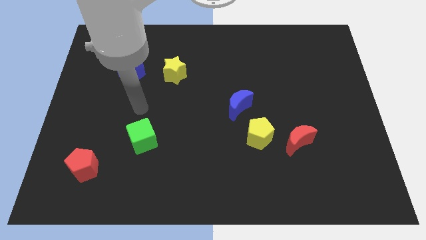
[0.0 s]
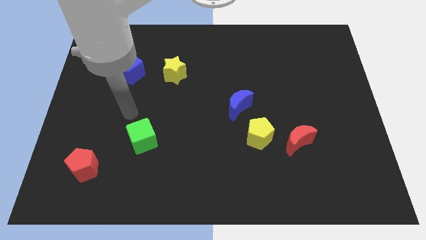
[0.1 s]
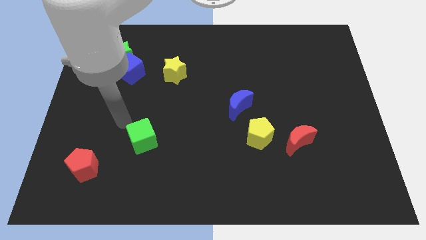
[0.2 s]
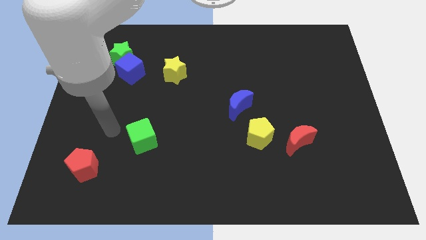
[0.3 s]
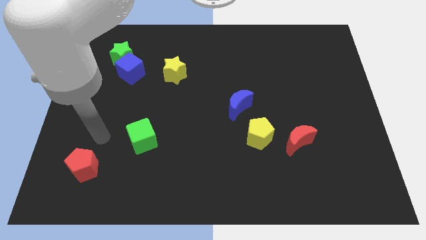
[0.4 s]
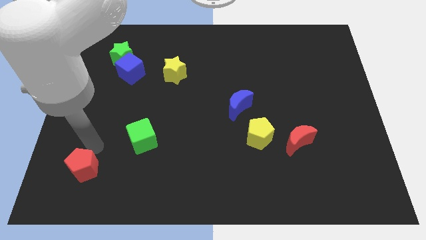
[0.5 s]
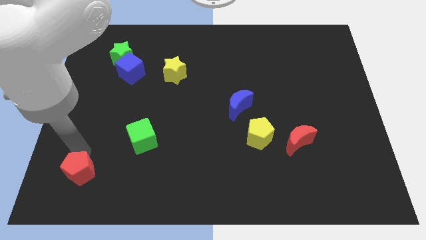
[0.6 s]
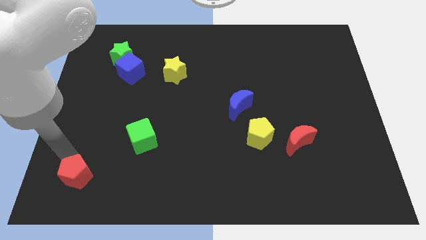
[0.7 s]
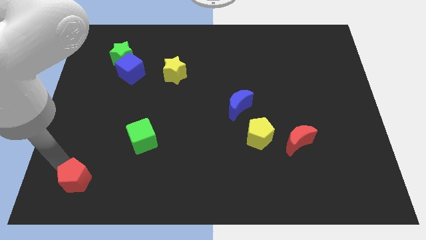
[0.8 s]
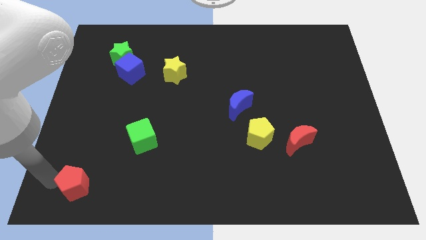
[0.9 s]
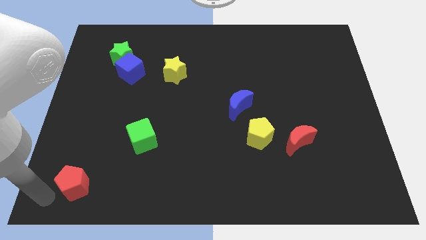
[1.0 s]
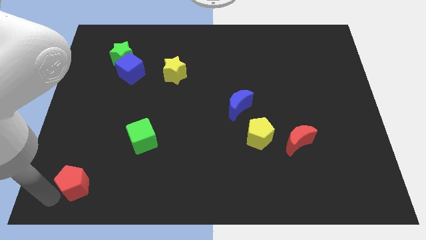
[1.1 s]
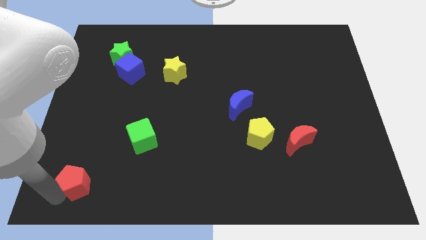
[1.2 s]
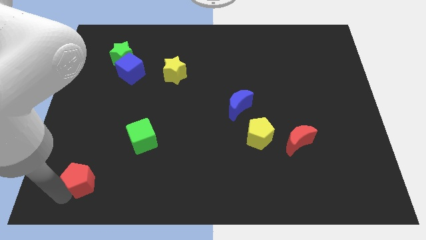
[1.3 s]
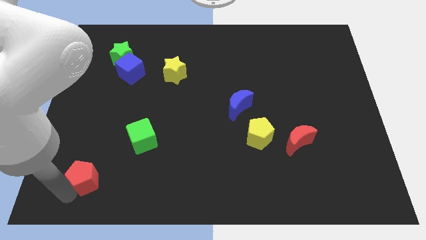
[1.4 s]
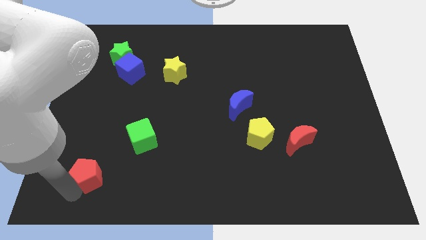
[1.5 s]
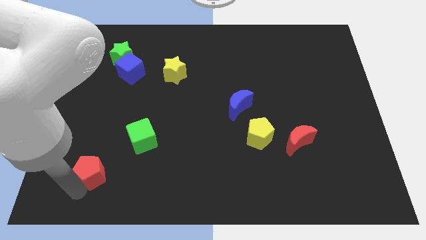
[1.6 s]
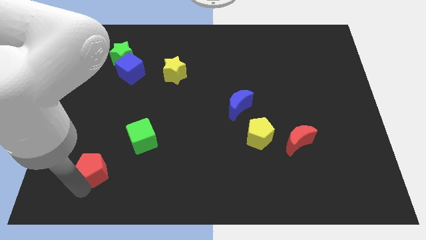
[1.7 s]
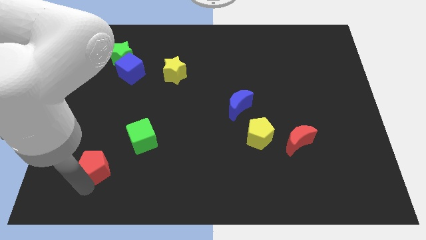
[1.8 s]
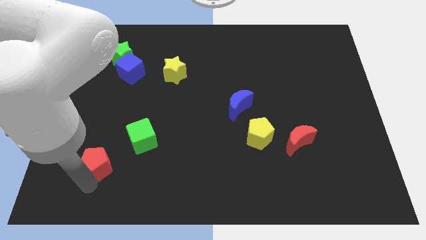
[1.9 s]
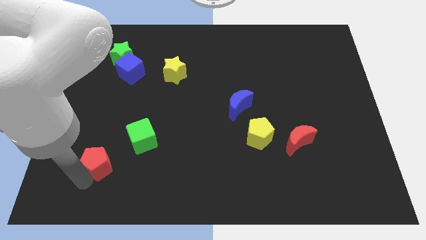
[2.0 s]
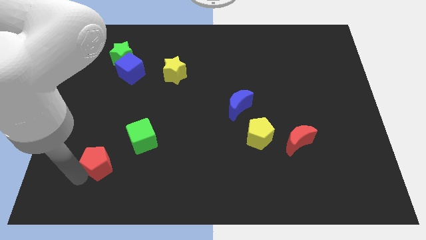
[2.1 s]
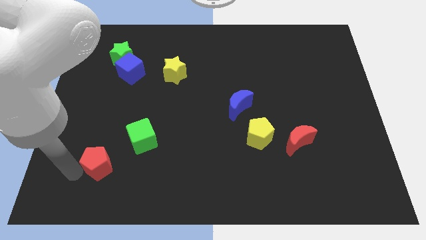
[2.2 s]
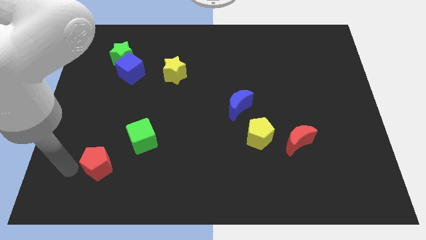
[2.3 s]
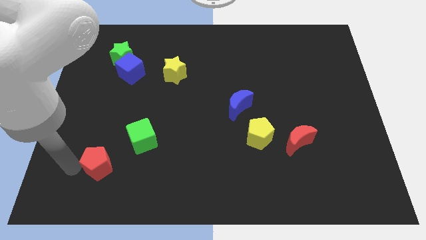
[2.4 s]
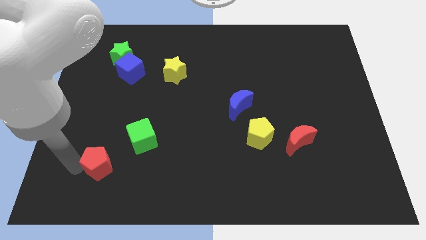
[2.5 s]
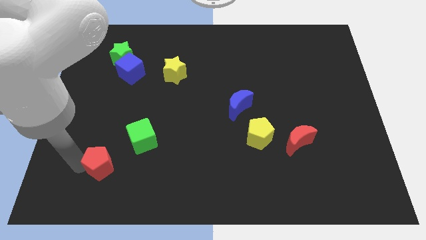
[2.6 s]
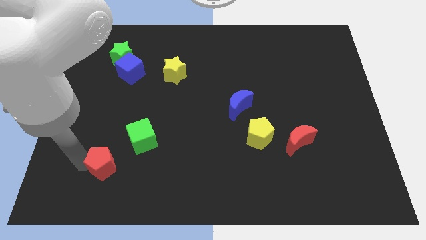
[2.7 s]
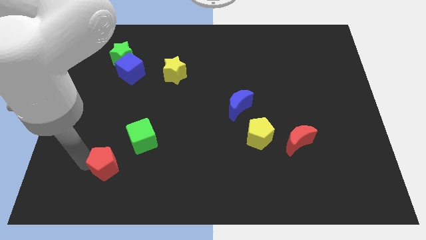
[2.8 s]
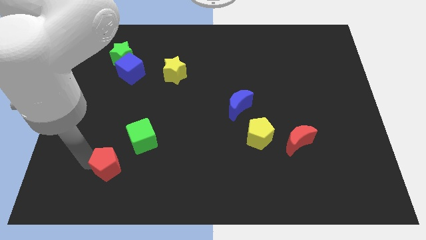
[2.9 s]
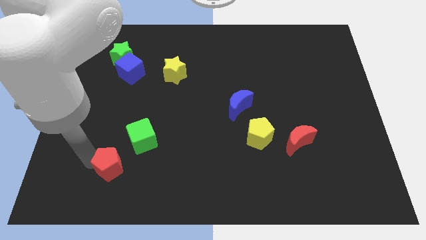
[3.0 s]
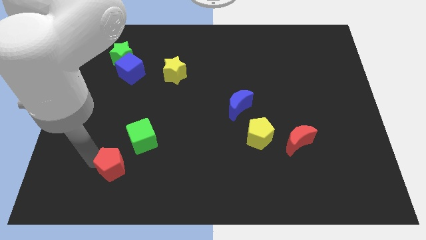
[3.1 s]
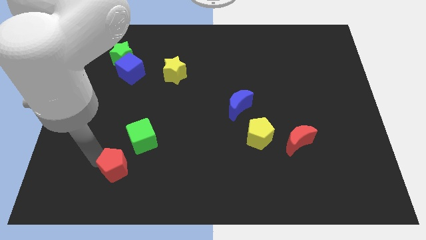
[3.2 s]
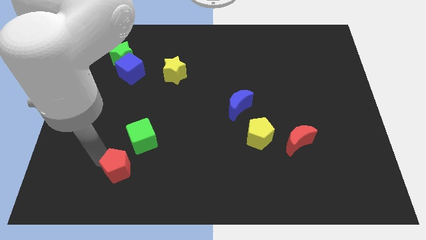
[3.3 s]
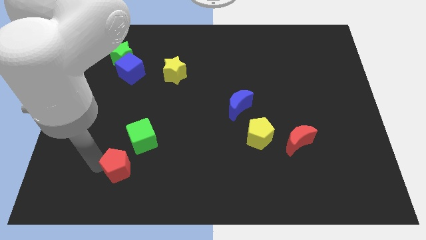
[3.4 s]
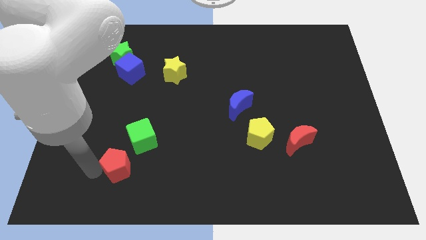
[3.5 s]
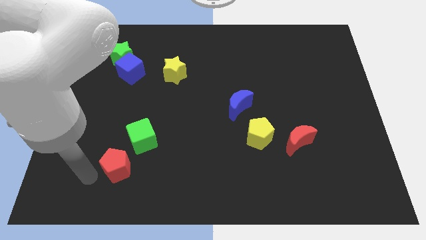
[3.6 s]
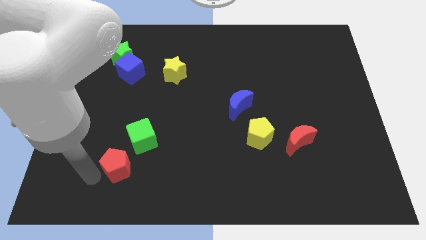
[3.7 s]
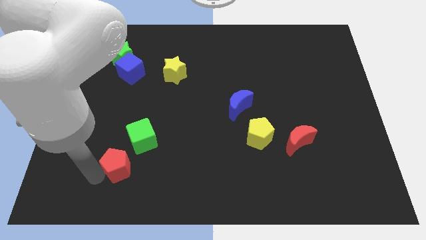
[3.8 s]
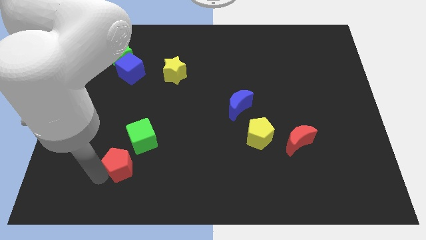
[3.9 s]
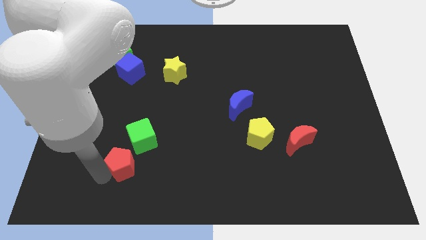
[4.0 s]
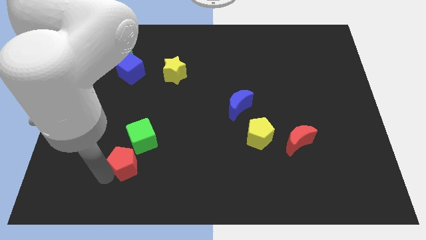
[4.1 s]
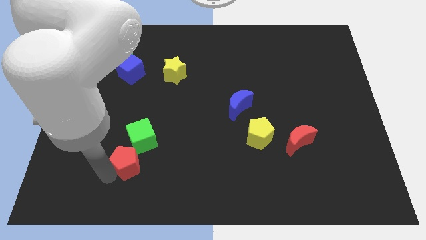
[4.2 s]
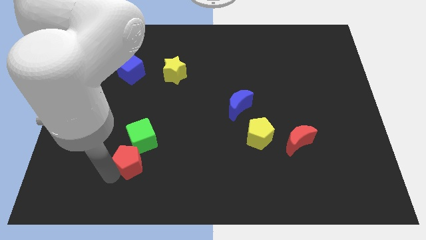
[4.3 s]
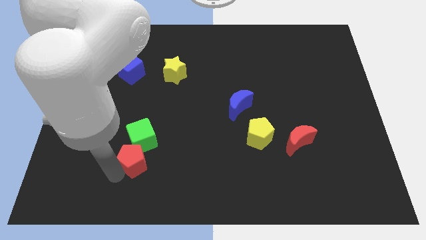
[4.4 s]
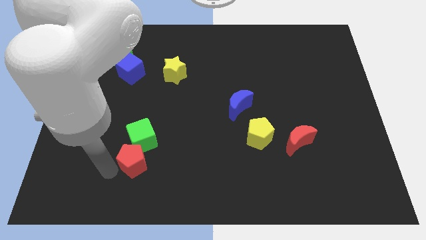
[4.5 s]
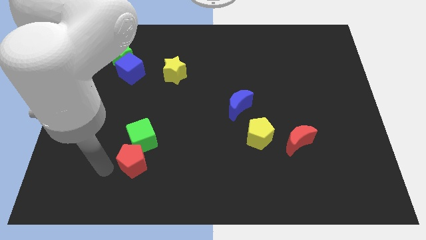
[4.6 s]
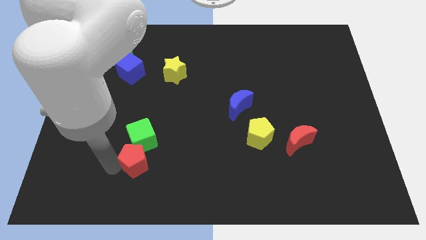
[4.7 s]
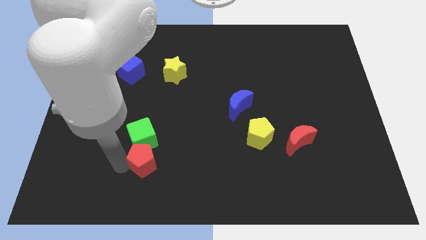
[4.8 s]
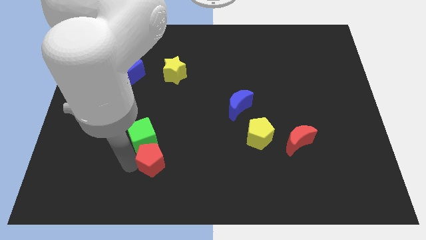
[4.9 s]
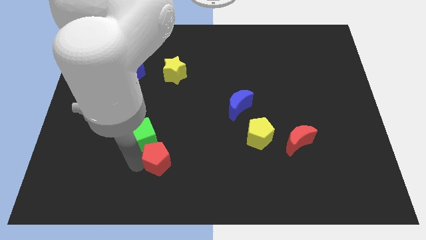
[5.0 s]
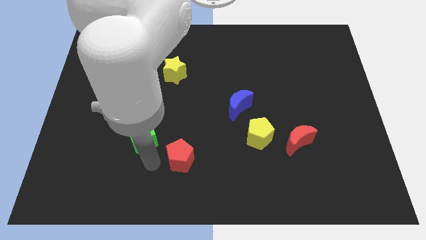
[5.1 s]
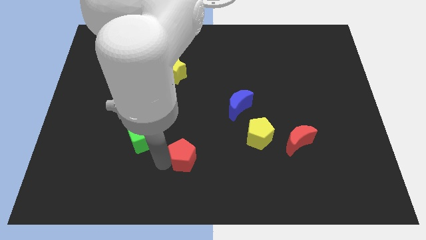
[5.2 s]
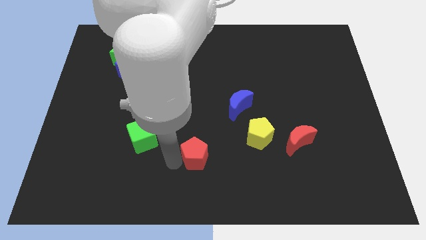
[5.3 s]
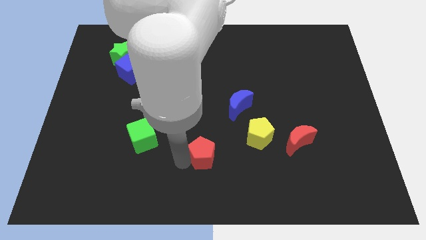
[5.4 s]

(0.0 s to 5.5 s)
put the red pentagon left of the yellow pentagon
